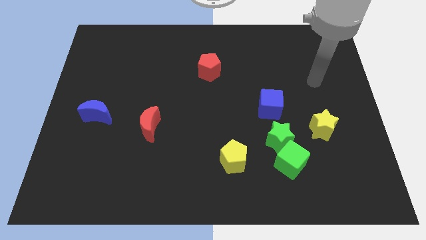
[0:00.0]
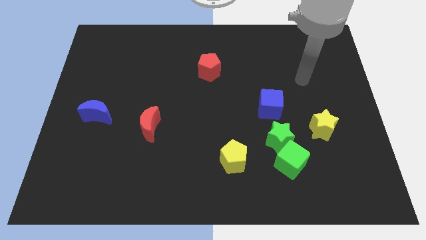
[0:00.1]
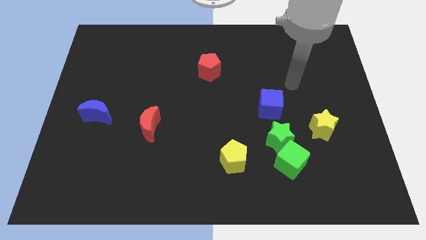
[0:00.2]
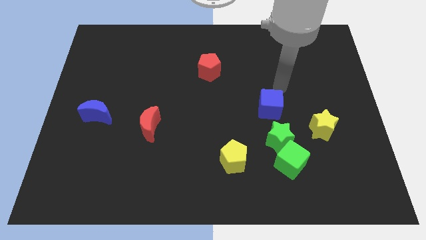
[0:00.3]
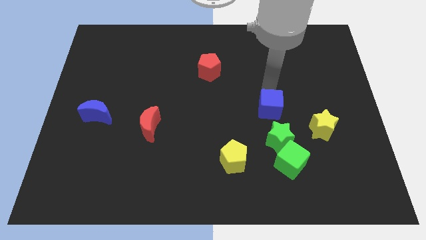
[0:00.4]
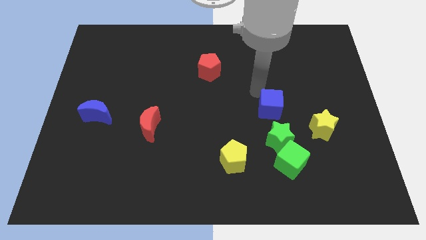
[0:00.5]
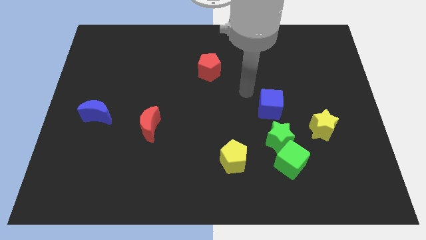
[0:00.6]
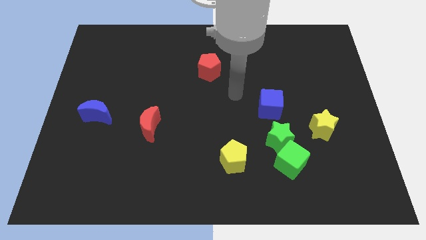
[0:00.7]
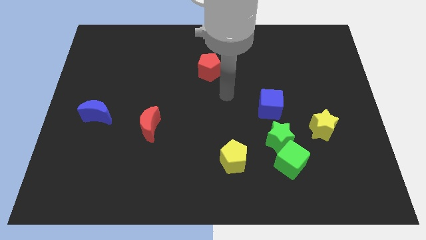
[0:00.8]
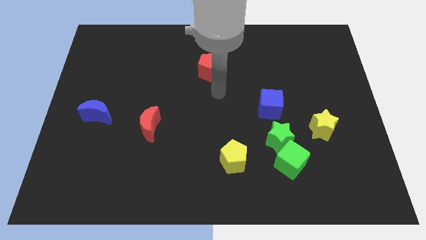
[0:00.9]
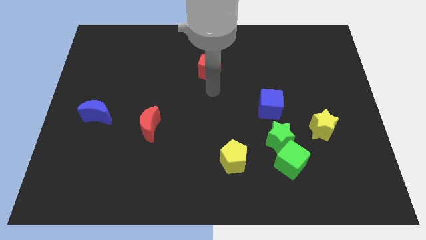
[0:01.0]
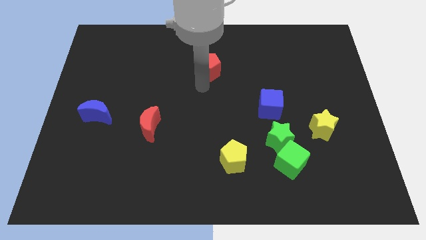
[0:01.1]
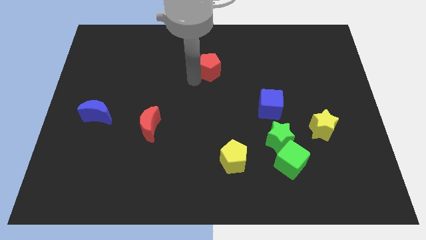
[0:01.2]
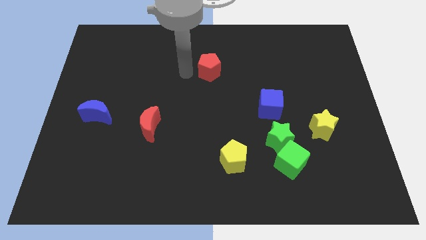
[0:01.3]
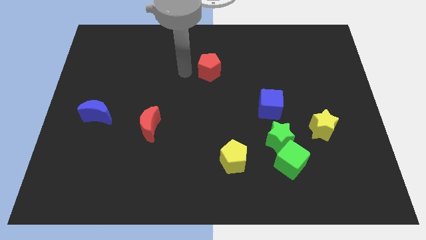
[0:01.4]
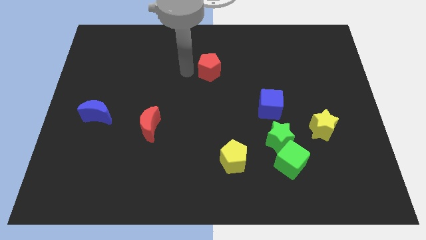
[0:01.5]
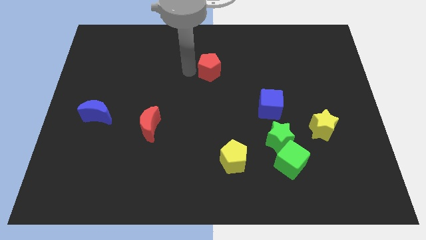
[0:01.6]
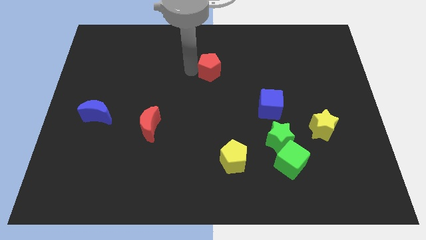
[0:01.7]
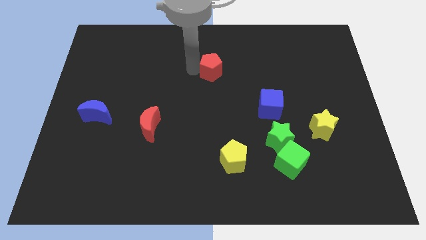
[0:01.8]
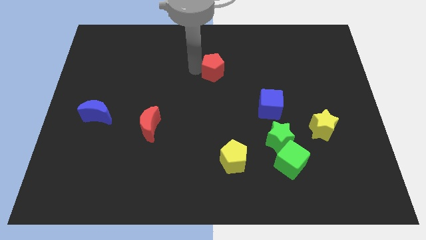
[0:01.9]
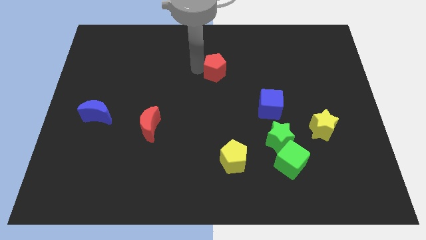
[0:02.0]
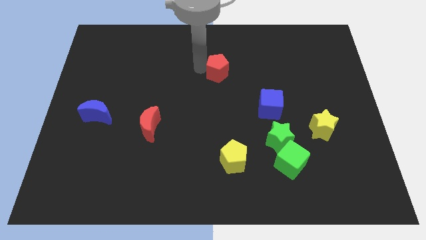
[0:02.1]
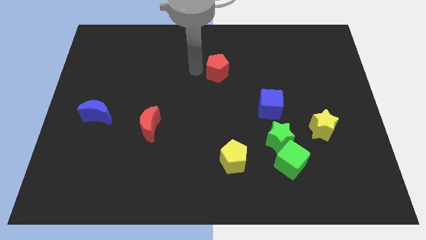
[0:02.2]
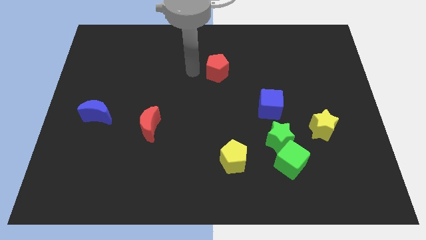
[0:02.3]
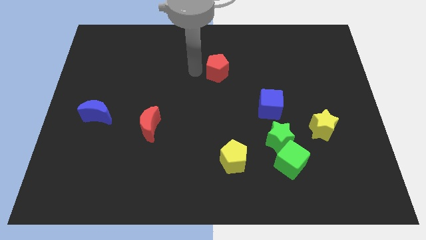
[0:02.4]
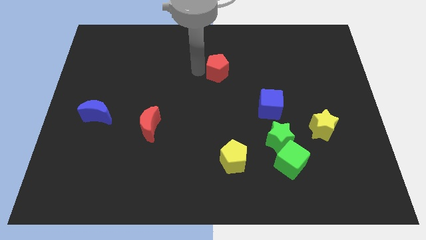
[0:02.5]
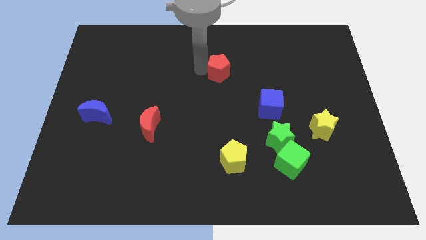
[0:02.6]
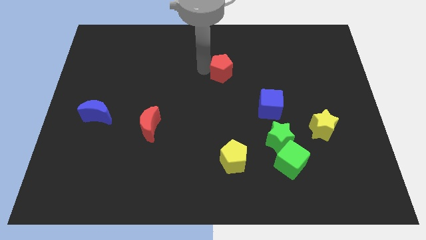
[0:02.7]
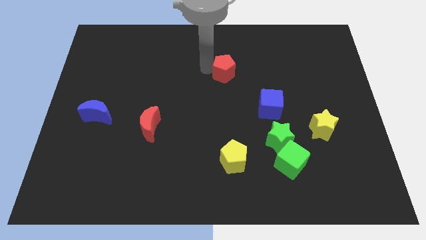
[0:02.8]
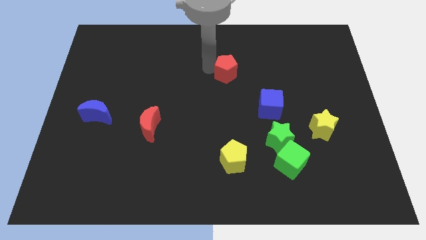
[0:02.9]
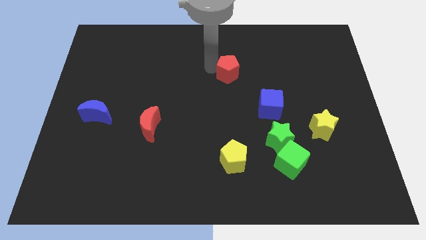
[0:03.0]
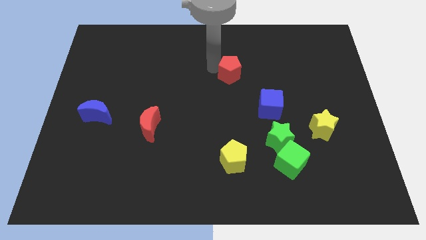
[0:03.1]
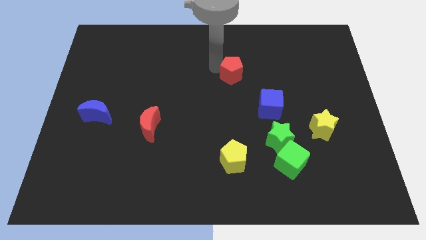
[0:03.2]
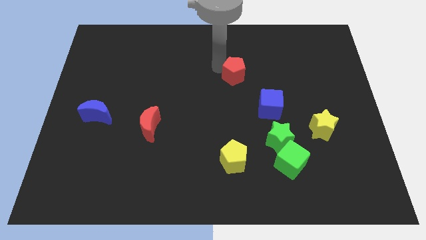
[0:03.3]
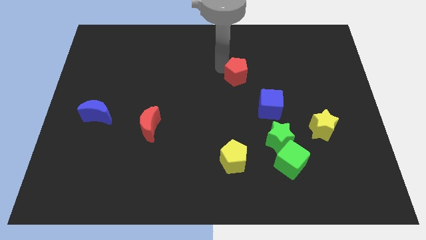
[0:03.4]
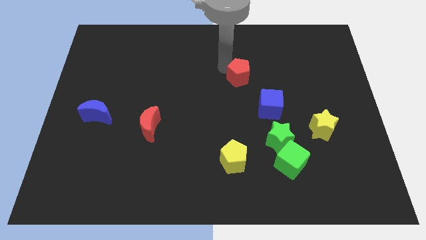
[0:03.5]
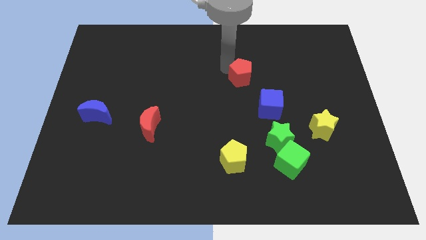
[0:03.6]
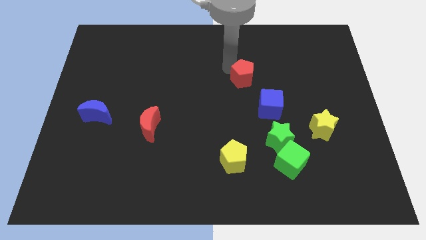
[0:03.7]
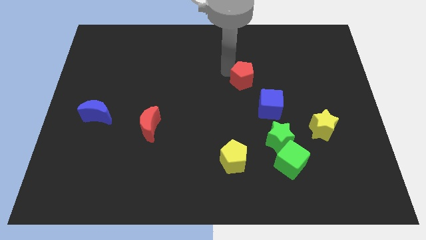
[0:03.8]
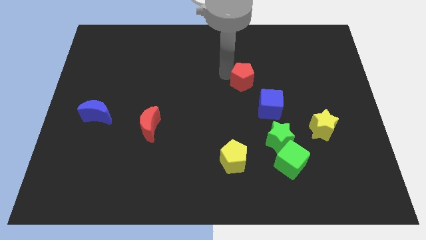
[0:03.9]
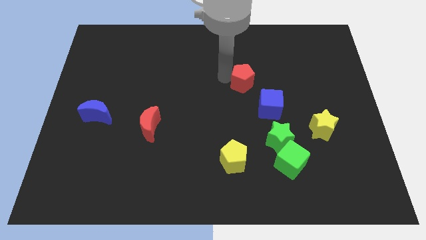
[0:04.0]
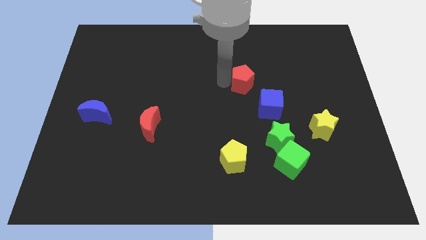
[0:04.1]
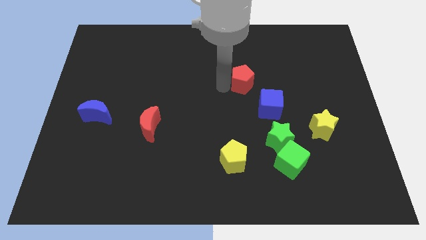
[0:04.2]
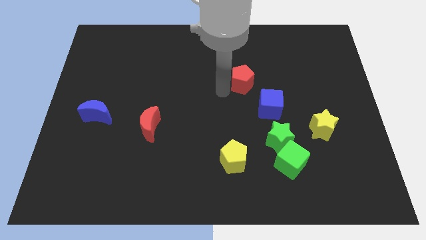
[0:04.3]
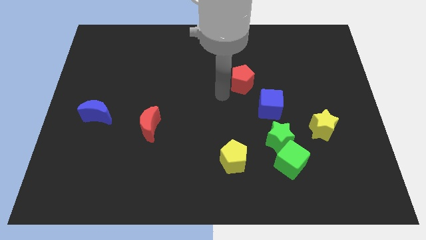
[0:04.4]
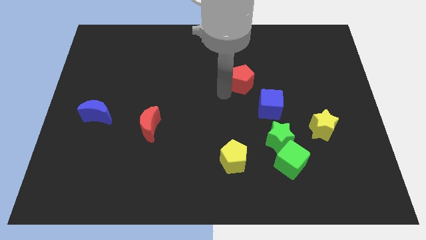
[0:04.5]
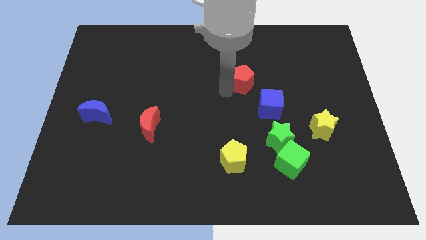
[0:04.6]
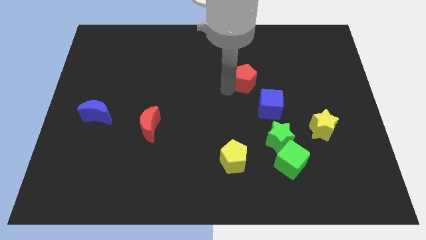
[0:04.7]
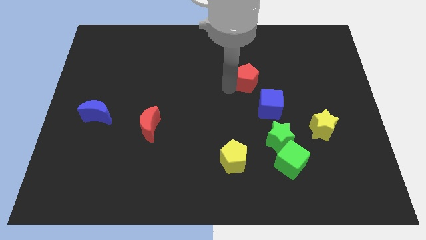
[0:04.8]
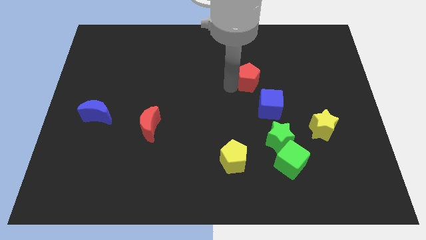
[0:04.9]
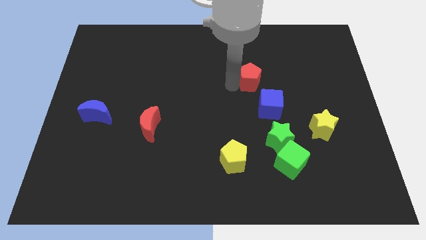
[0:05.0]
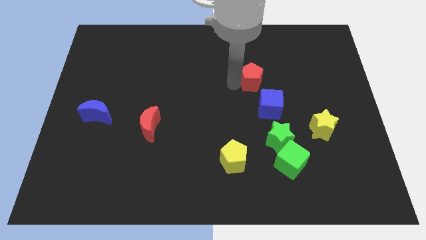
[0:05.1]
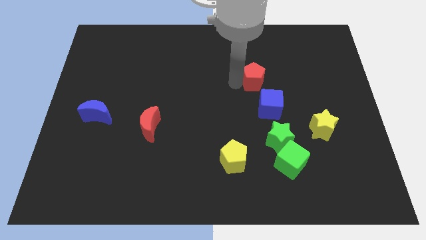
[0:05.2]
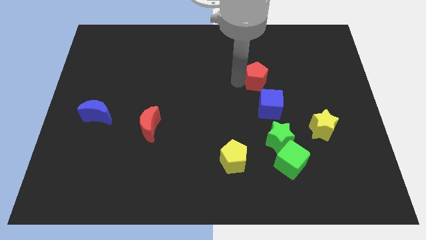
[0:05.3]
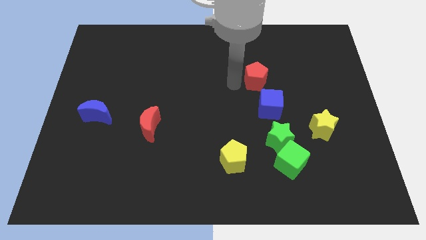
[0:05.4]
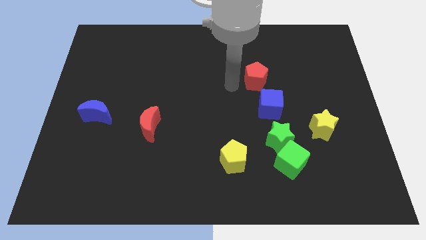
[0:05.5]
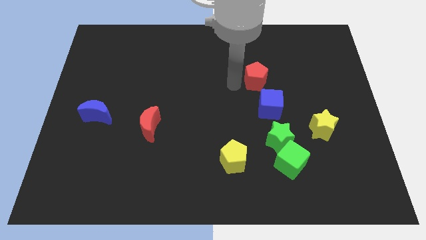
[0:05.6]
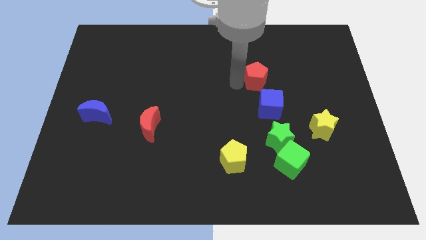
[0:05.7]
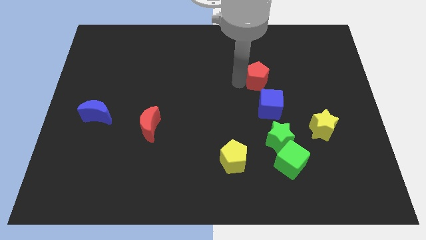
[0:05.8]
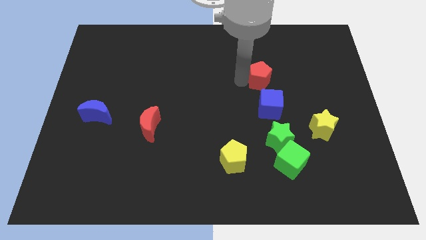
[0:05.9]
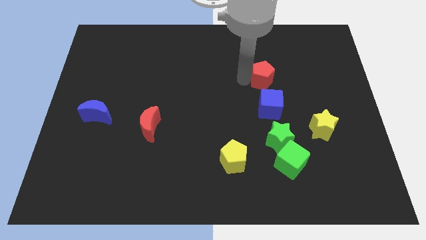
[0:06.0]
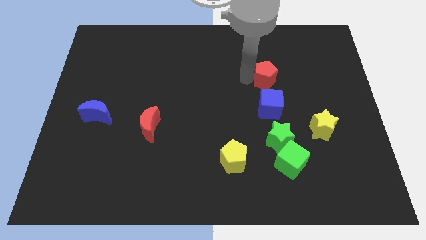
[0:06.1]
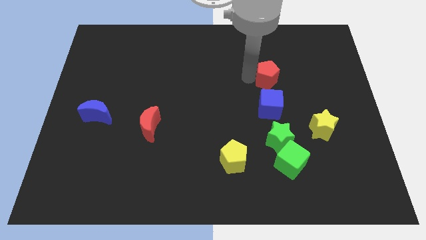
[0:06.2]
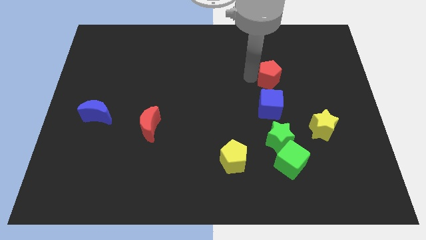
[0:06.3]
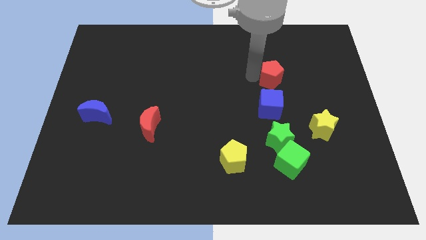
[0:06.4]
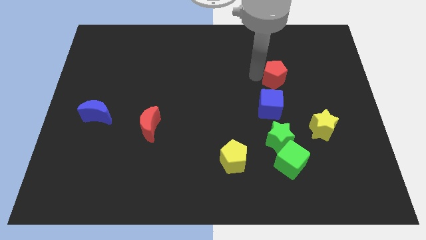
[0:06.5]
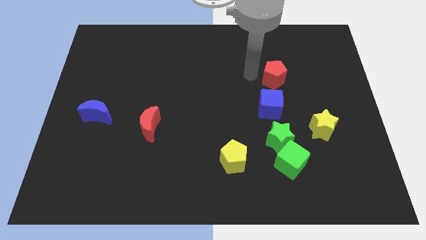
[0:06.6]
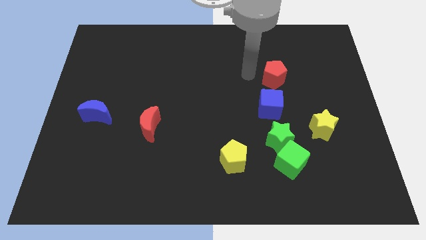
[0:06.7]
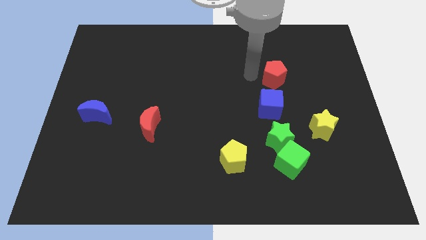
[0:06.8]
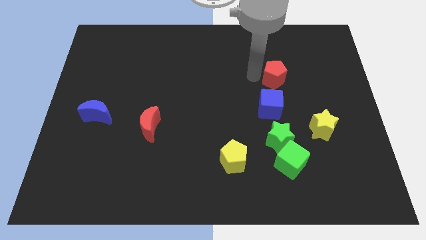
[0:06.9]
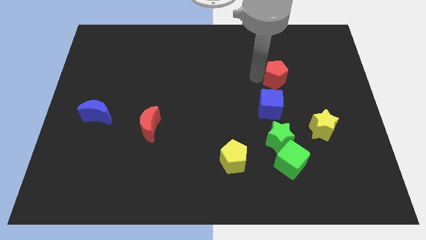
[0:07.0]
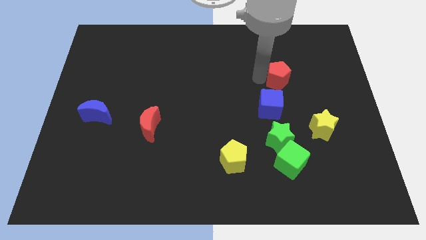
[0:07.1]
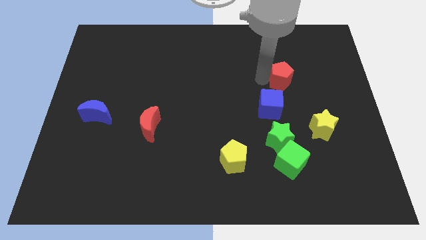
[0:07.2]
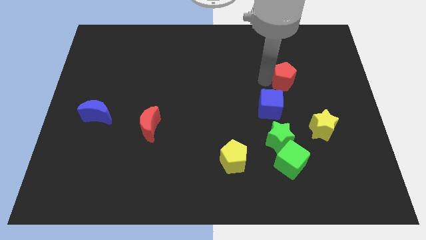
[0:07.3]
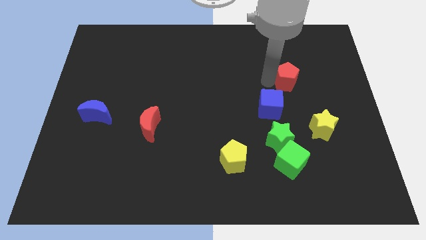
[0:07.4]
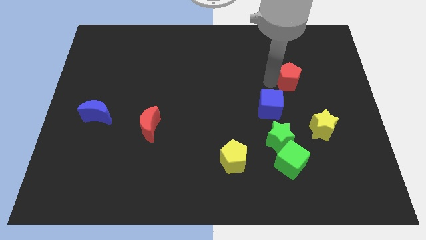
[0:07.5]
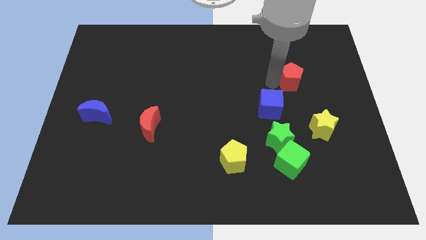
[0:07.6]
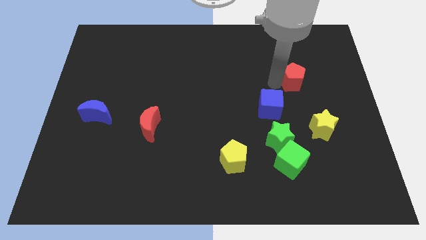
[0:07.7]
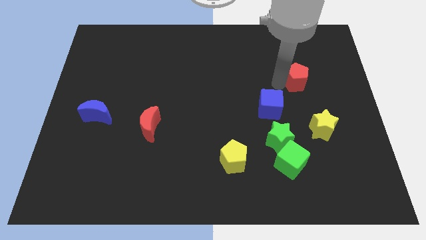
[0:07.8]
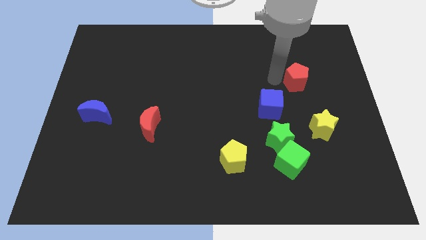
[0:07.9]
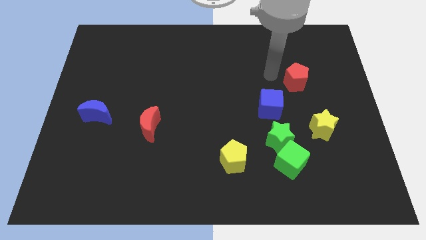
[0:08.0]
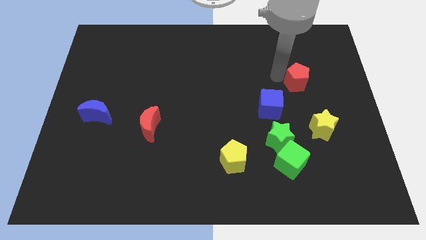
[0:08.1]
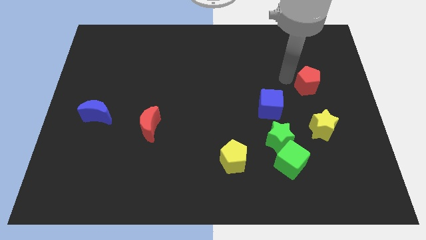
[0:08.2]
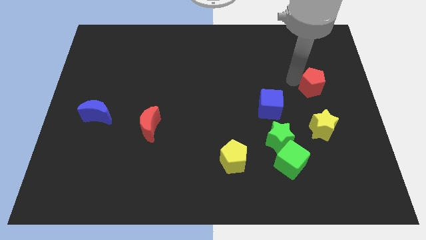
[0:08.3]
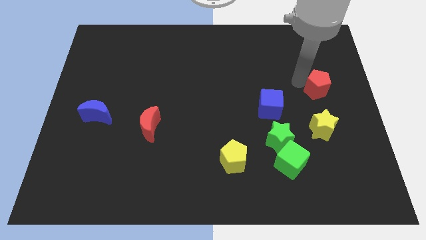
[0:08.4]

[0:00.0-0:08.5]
push the red pentagon to the right side of the board
